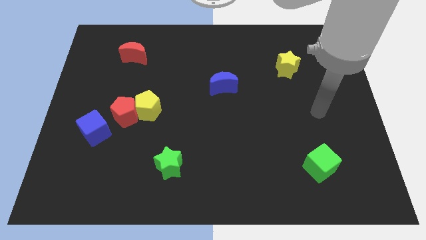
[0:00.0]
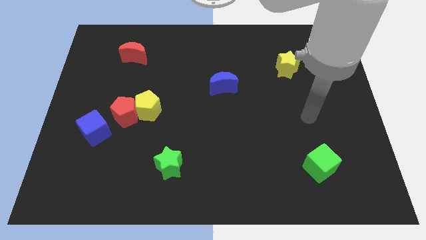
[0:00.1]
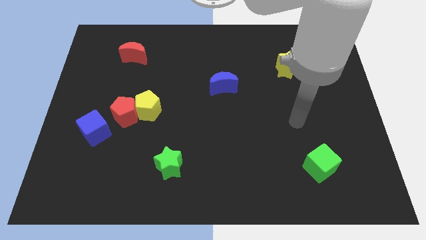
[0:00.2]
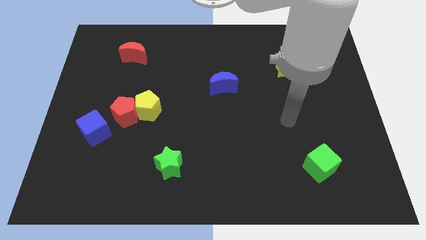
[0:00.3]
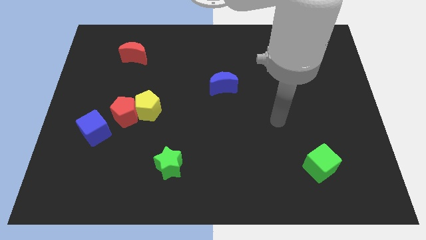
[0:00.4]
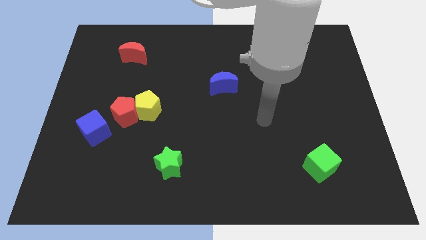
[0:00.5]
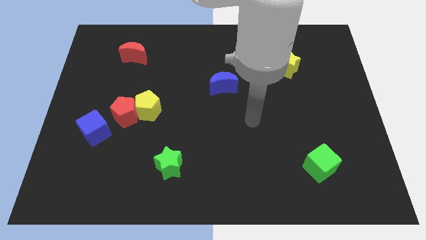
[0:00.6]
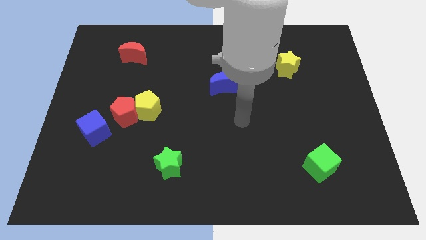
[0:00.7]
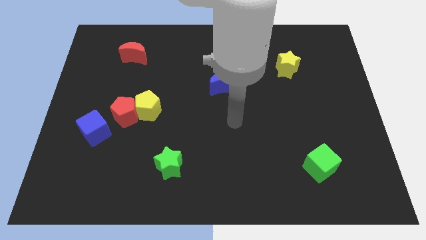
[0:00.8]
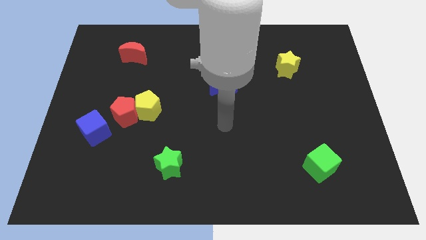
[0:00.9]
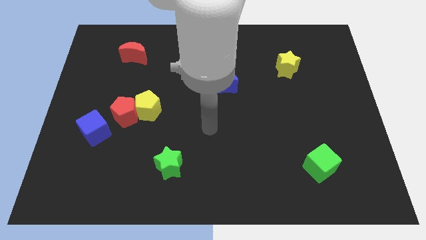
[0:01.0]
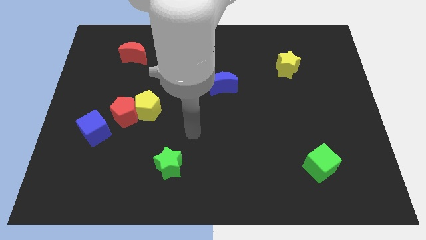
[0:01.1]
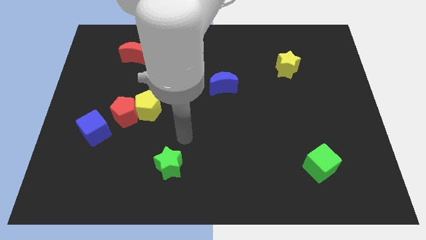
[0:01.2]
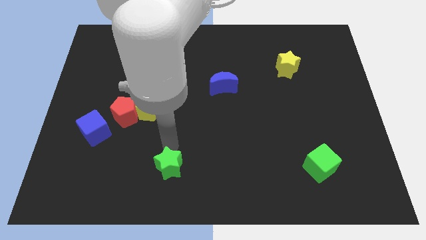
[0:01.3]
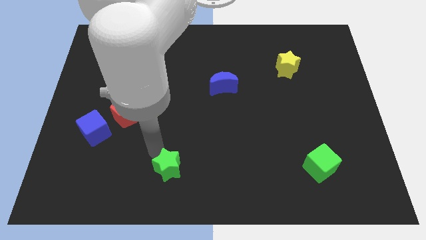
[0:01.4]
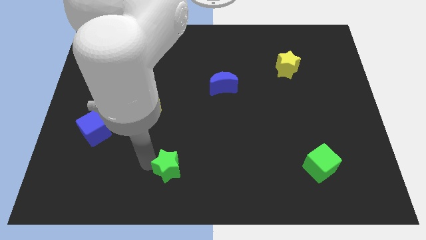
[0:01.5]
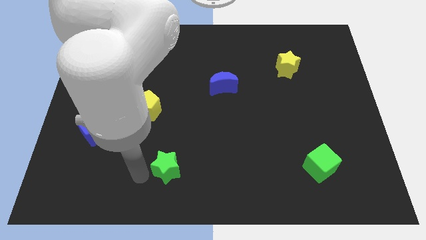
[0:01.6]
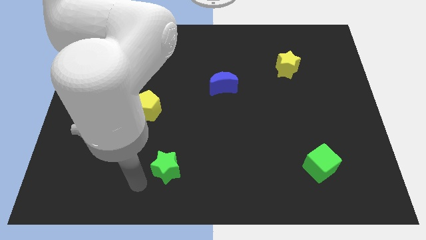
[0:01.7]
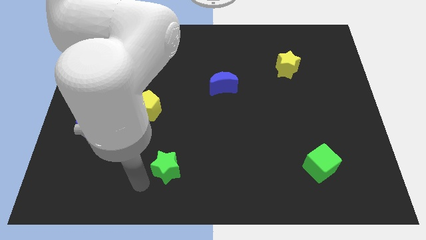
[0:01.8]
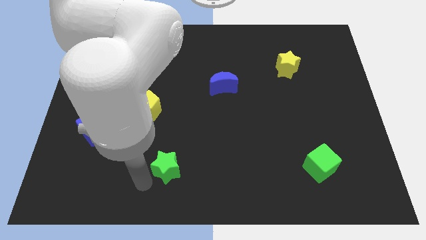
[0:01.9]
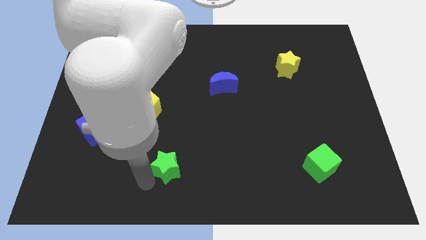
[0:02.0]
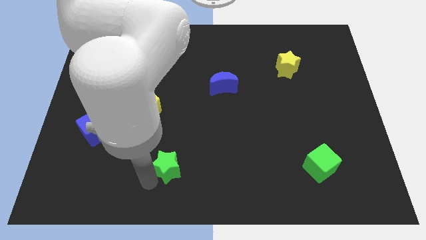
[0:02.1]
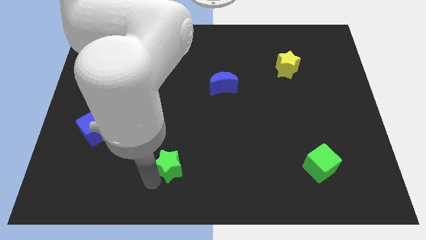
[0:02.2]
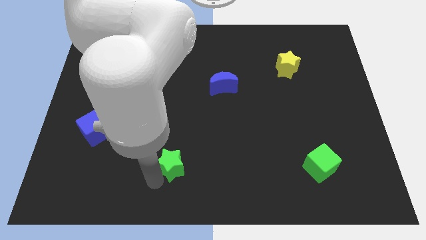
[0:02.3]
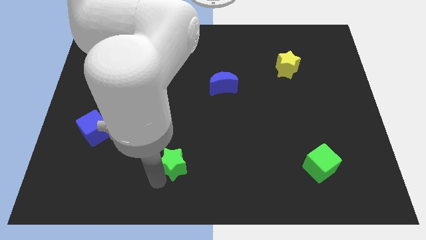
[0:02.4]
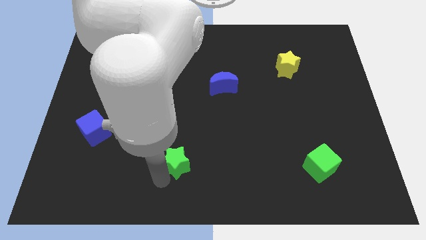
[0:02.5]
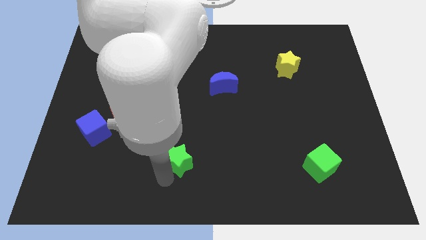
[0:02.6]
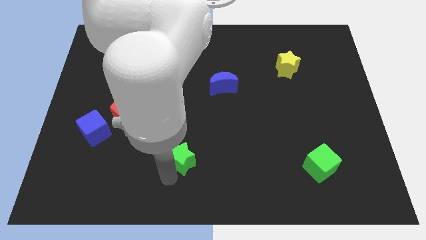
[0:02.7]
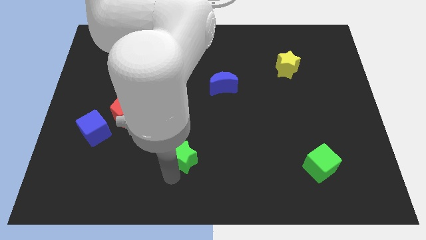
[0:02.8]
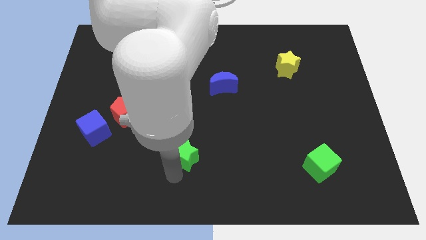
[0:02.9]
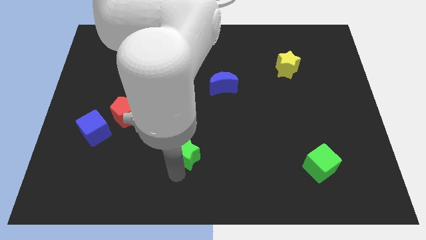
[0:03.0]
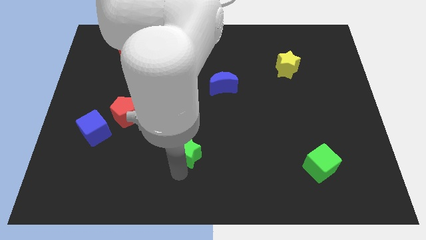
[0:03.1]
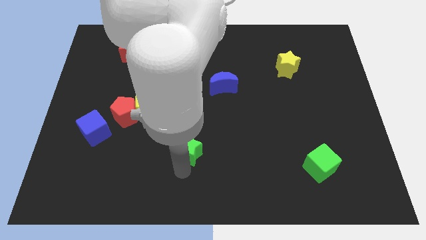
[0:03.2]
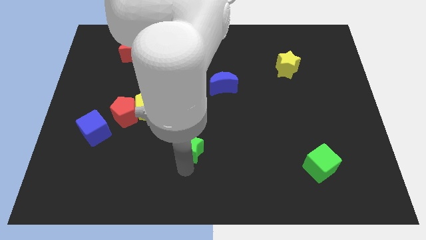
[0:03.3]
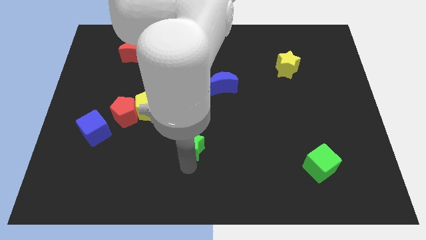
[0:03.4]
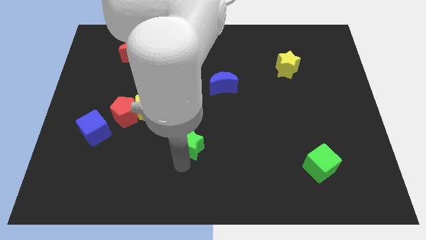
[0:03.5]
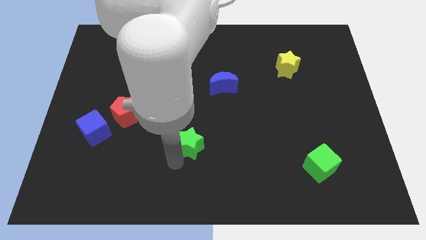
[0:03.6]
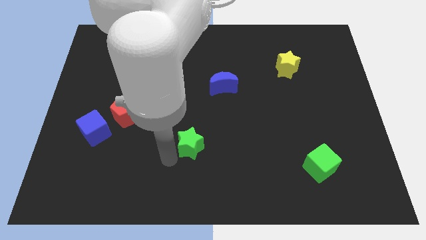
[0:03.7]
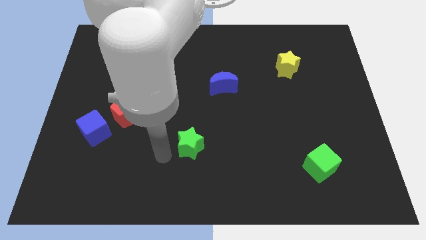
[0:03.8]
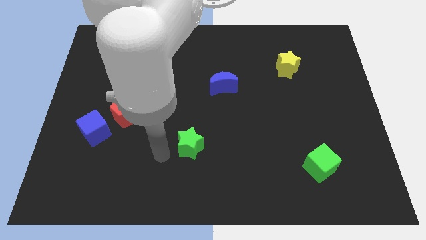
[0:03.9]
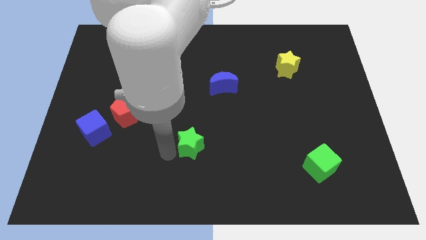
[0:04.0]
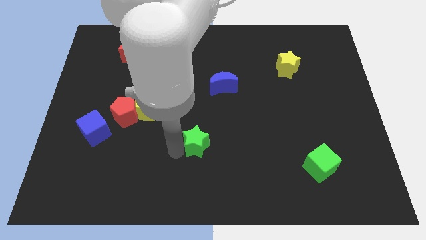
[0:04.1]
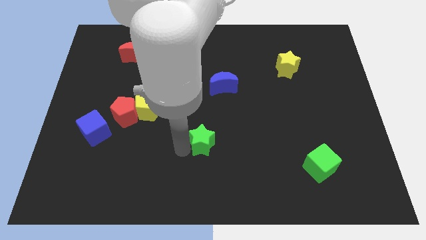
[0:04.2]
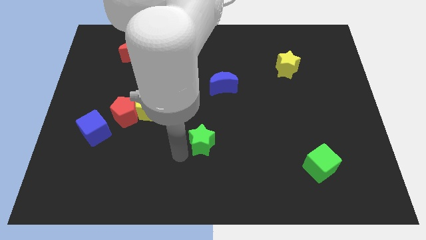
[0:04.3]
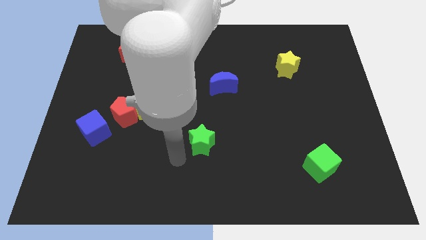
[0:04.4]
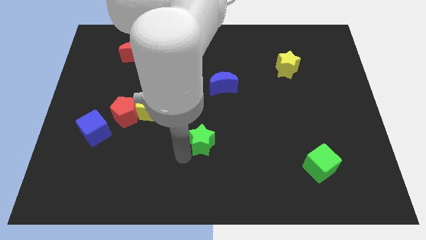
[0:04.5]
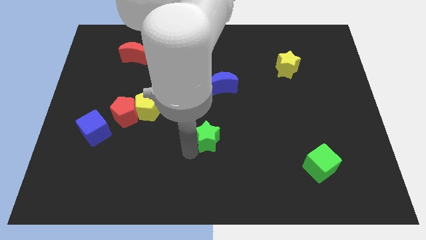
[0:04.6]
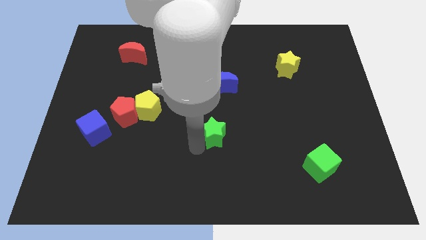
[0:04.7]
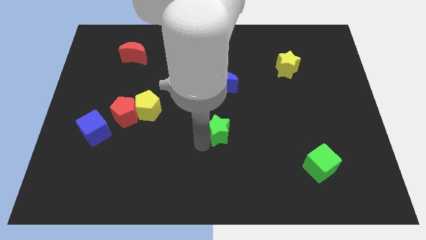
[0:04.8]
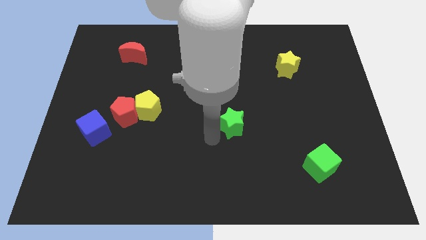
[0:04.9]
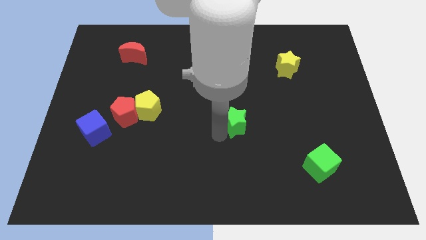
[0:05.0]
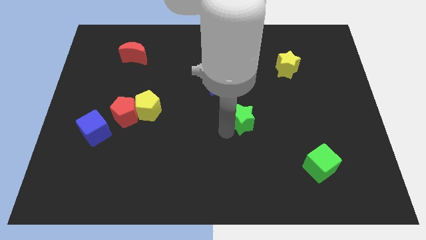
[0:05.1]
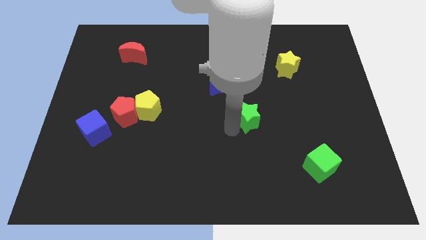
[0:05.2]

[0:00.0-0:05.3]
move the green star up and right

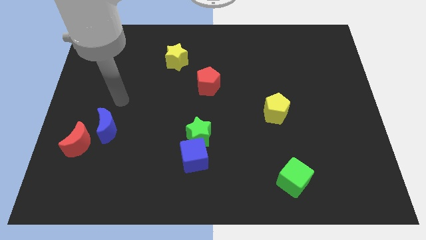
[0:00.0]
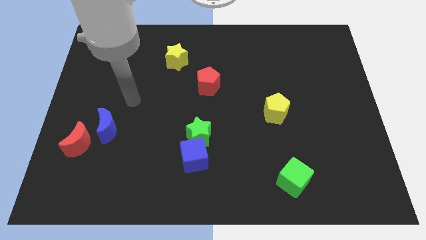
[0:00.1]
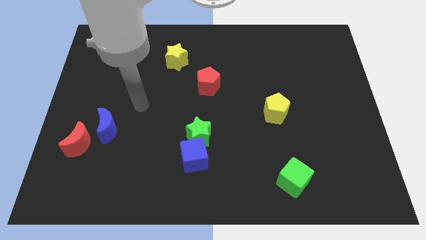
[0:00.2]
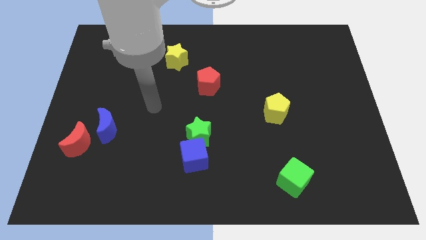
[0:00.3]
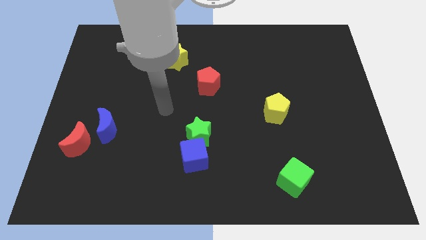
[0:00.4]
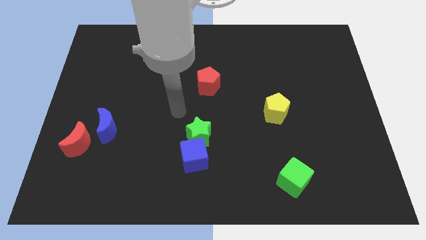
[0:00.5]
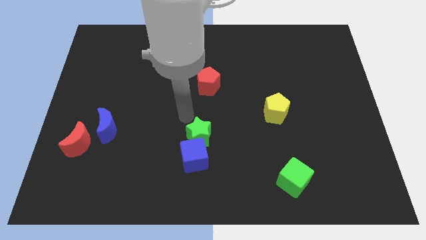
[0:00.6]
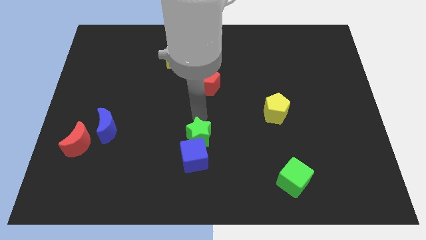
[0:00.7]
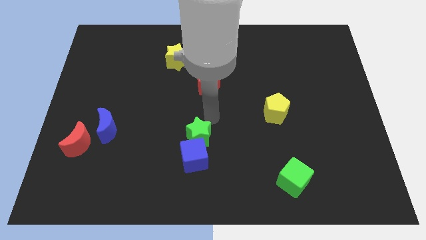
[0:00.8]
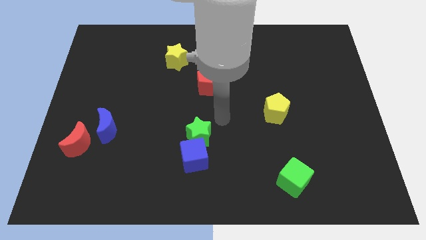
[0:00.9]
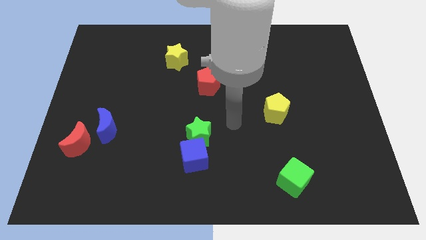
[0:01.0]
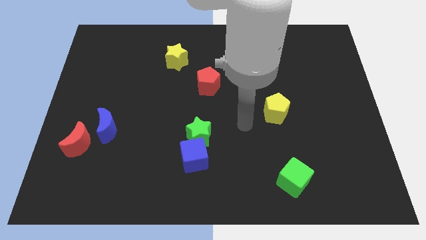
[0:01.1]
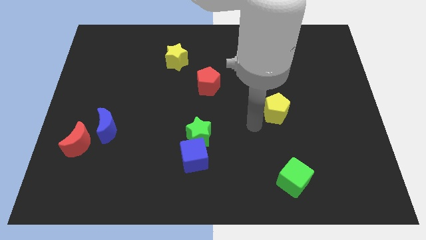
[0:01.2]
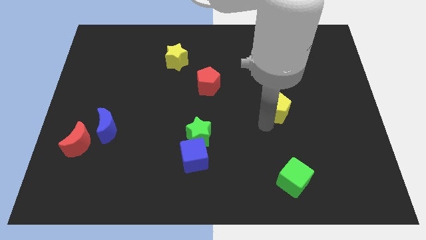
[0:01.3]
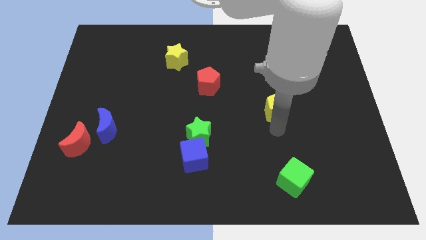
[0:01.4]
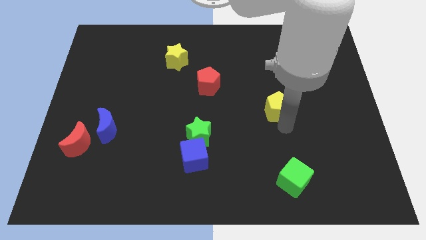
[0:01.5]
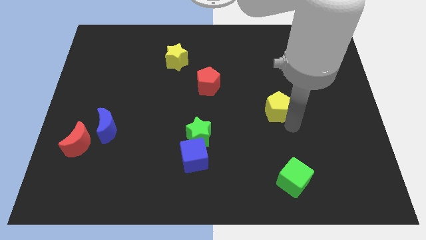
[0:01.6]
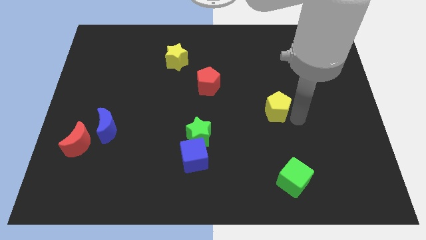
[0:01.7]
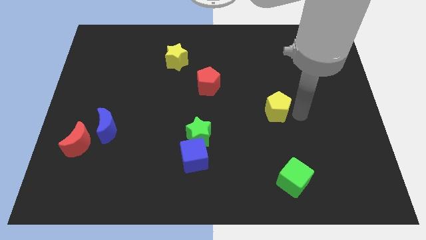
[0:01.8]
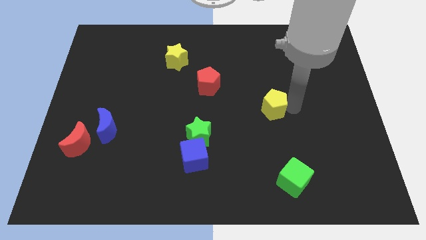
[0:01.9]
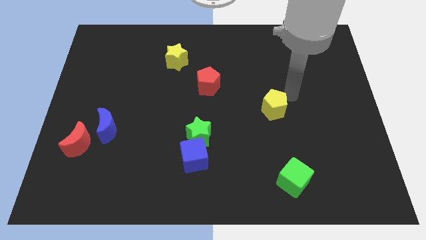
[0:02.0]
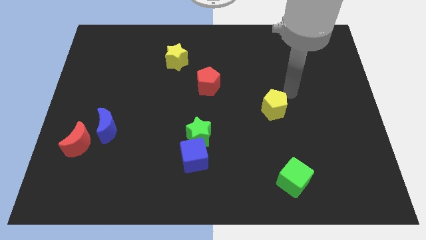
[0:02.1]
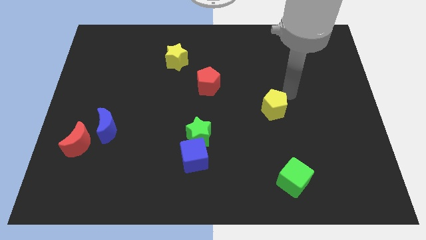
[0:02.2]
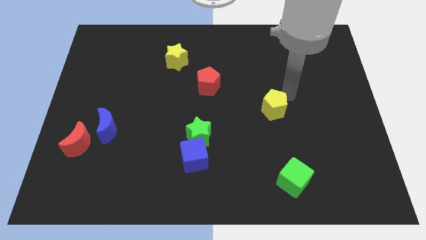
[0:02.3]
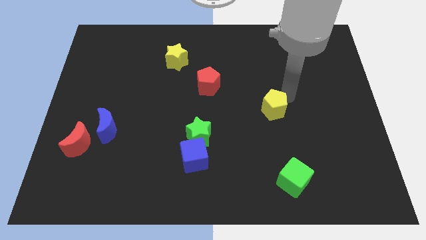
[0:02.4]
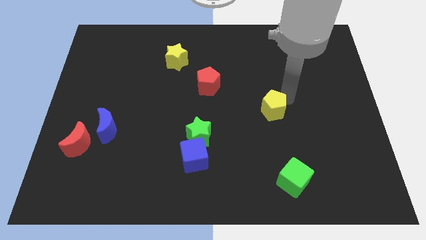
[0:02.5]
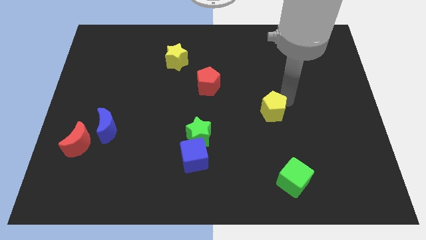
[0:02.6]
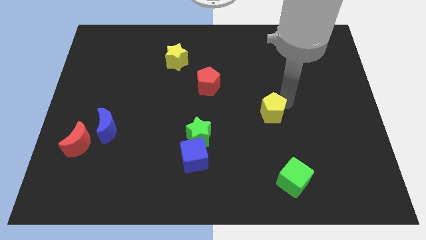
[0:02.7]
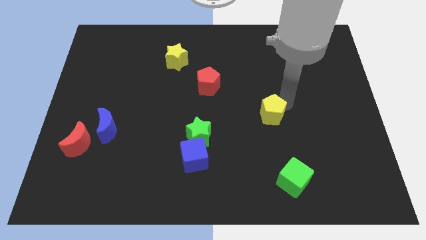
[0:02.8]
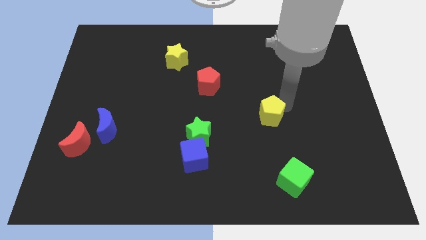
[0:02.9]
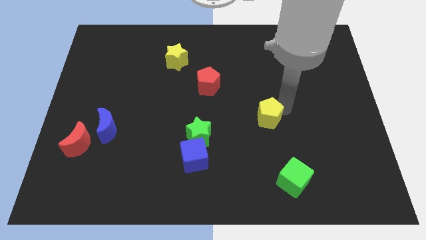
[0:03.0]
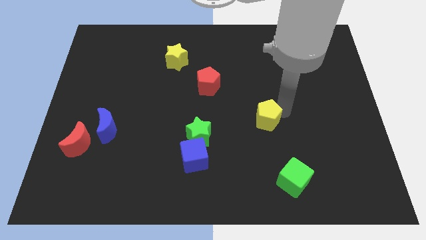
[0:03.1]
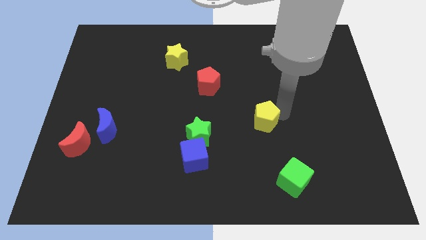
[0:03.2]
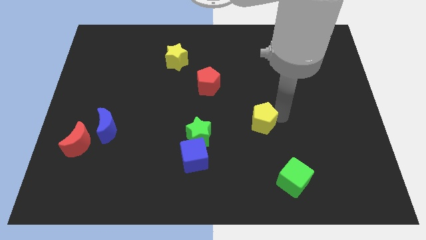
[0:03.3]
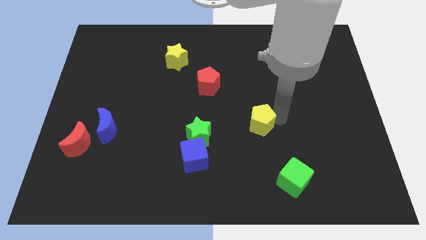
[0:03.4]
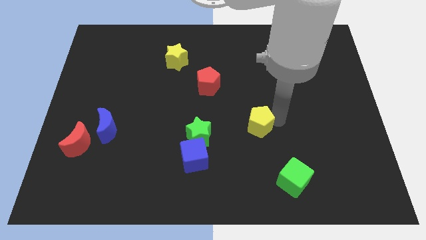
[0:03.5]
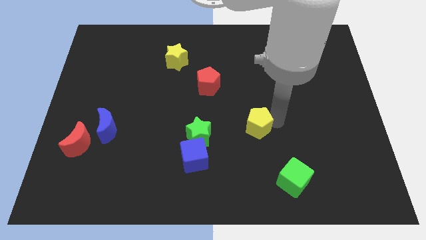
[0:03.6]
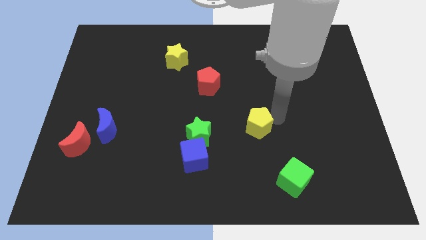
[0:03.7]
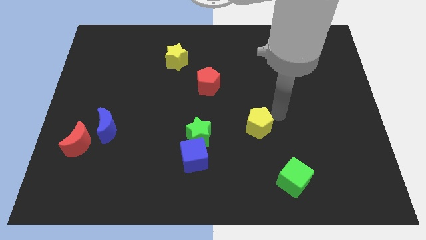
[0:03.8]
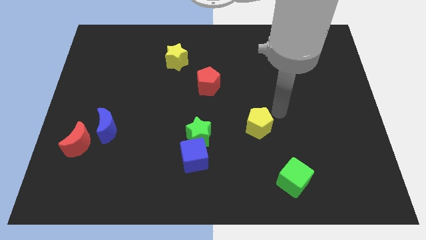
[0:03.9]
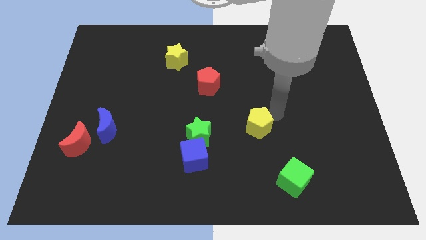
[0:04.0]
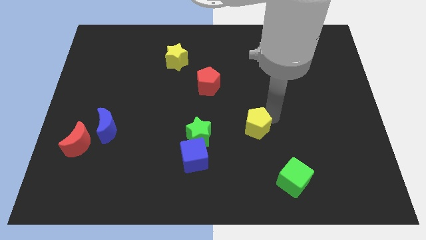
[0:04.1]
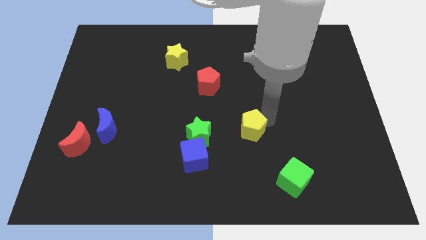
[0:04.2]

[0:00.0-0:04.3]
move the yellow pentagon down and then to the left a bit
